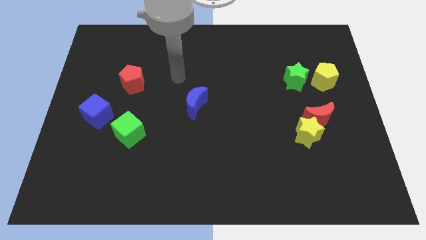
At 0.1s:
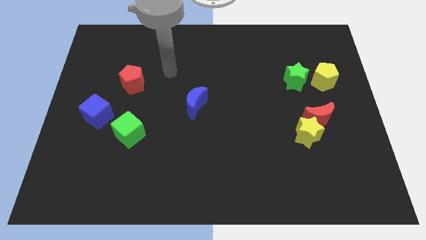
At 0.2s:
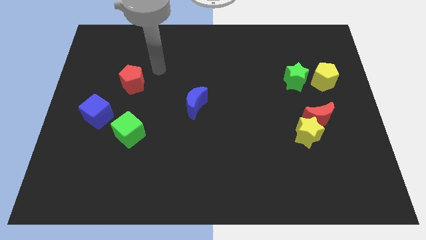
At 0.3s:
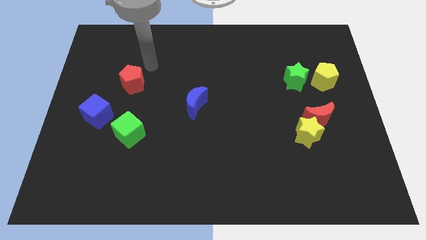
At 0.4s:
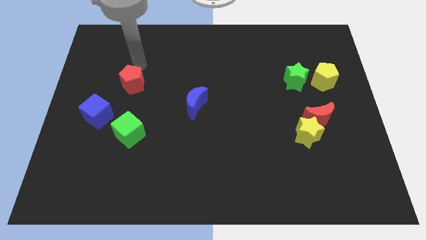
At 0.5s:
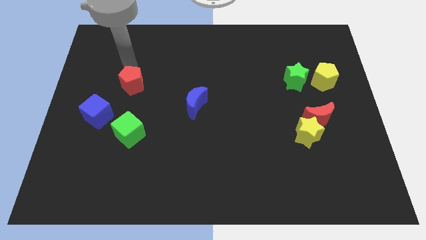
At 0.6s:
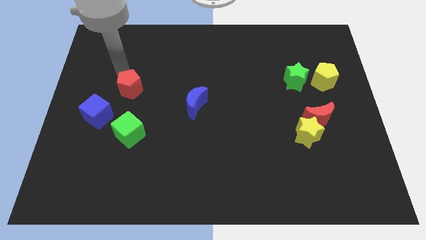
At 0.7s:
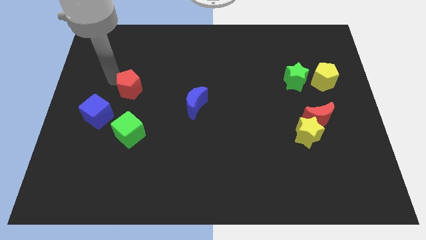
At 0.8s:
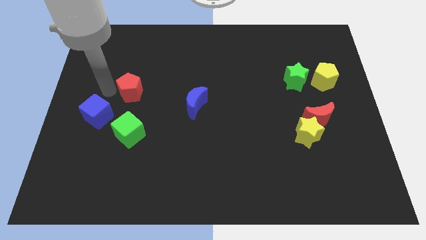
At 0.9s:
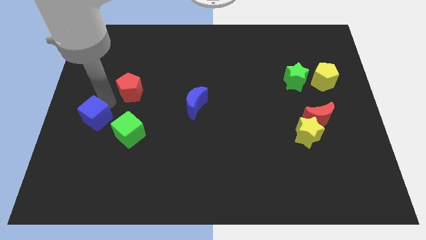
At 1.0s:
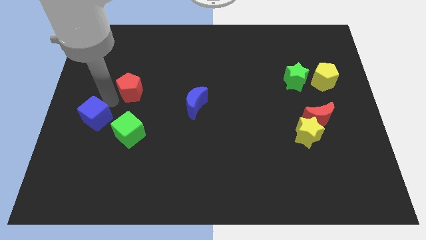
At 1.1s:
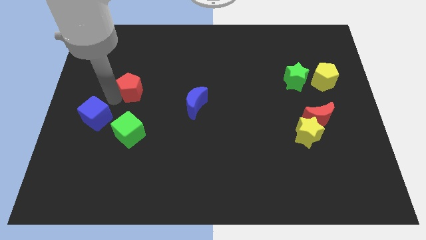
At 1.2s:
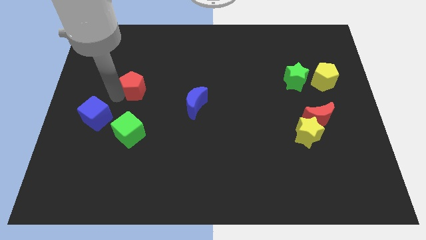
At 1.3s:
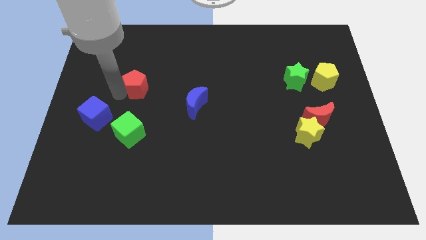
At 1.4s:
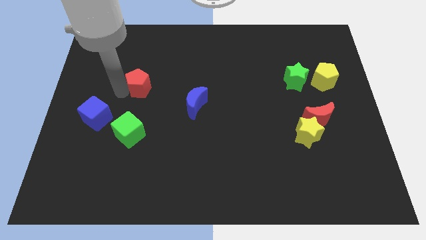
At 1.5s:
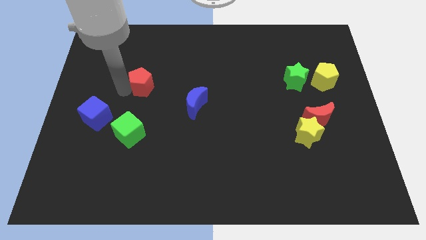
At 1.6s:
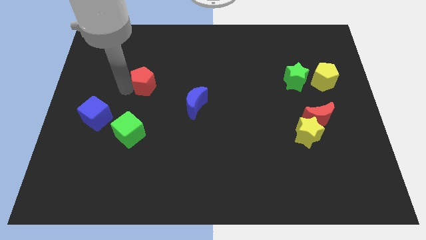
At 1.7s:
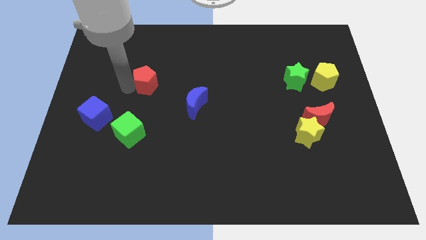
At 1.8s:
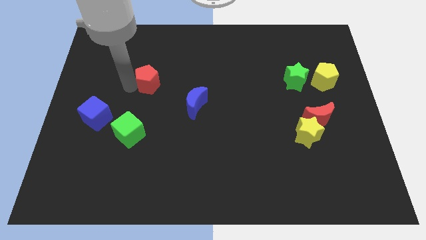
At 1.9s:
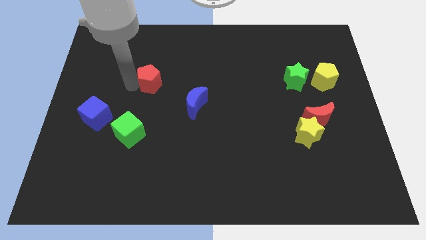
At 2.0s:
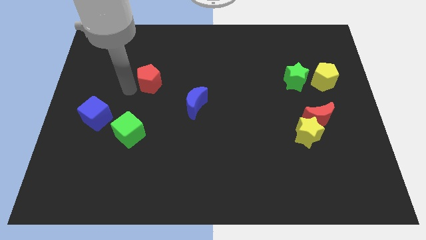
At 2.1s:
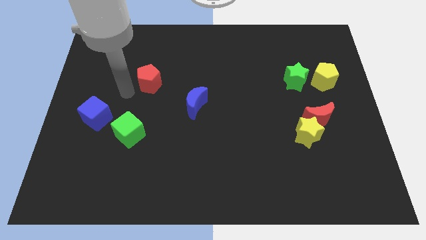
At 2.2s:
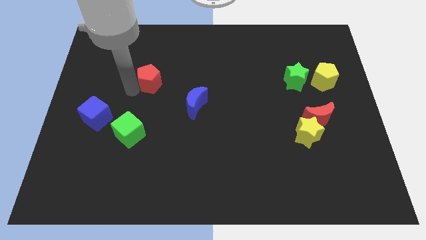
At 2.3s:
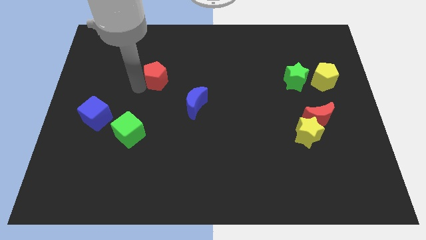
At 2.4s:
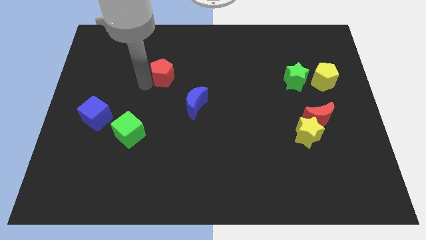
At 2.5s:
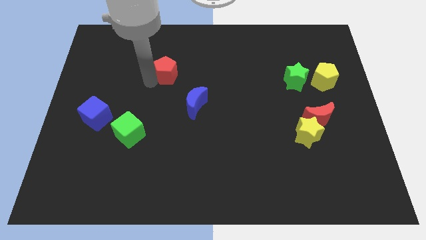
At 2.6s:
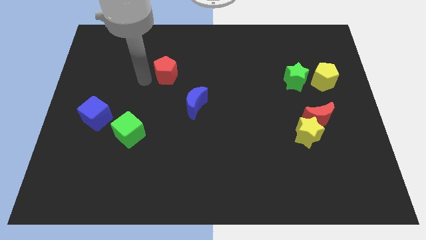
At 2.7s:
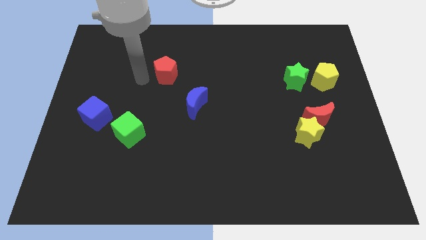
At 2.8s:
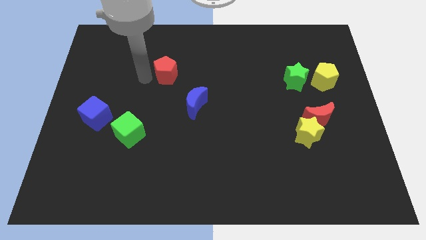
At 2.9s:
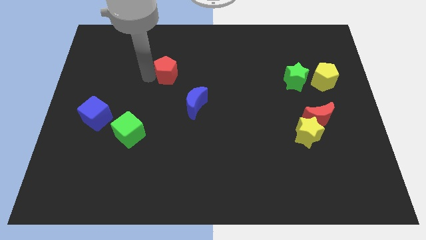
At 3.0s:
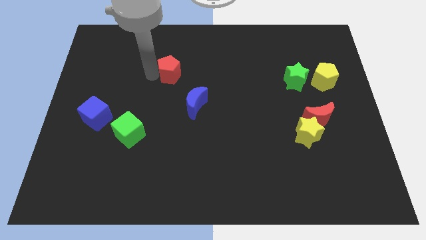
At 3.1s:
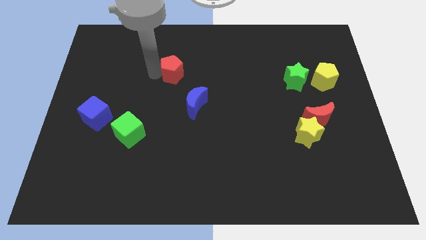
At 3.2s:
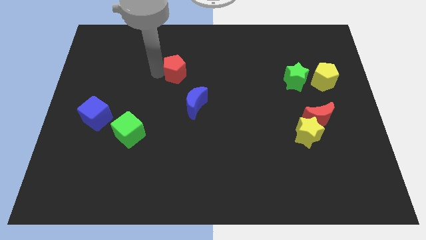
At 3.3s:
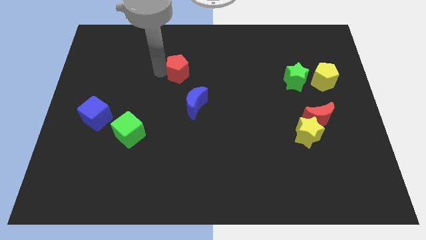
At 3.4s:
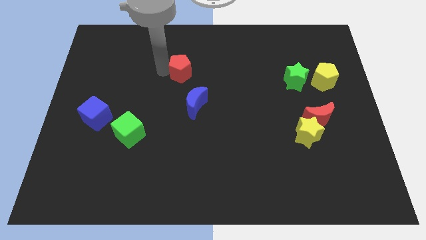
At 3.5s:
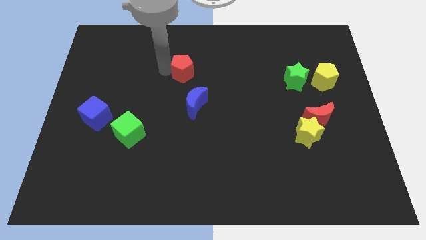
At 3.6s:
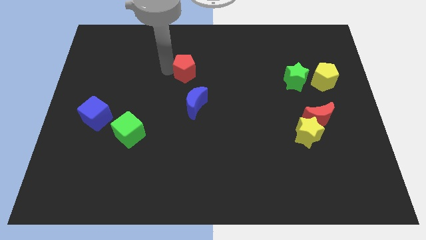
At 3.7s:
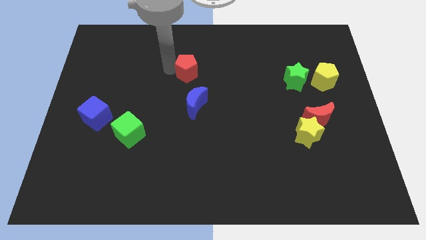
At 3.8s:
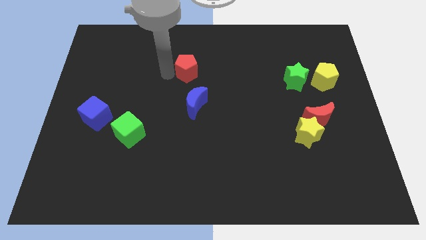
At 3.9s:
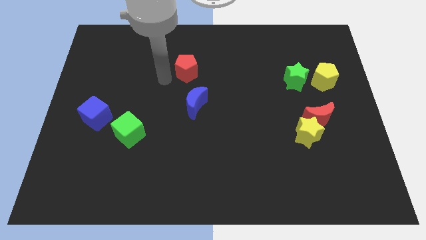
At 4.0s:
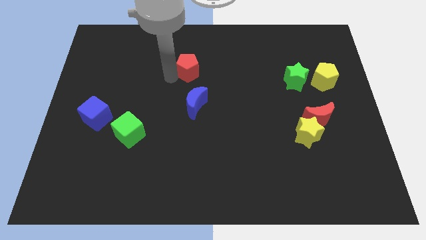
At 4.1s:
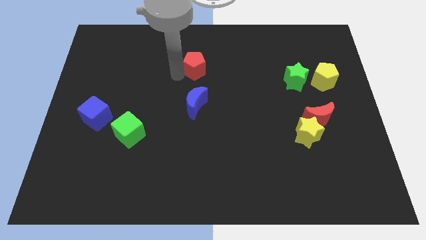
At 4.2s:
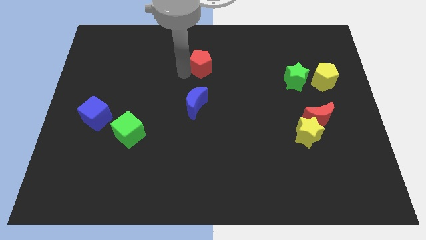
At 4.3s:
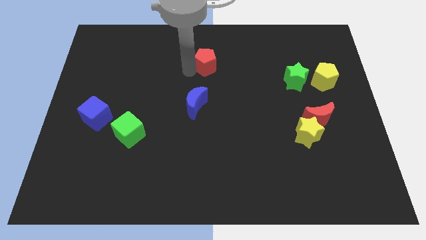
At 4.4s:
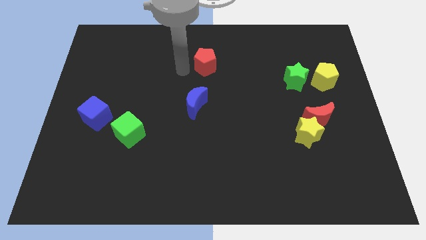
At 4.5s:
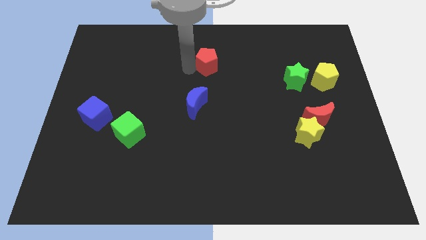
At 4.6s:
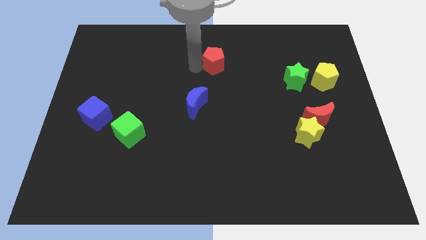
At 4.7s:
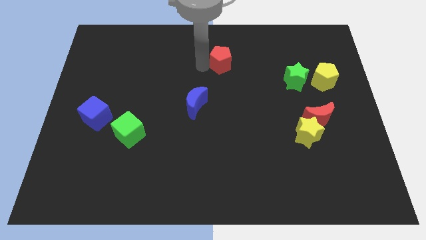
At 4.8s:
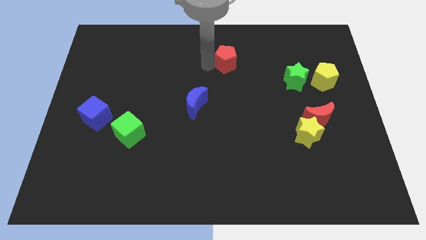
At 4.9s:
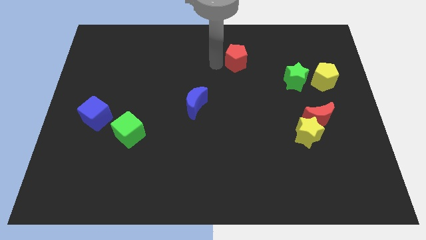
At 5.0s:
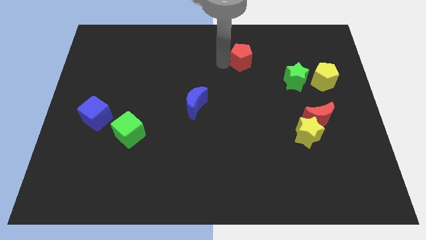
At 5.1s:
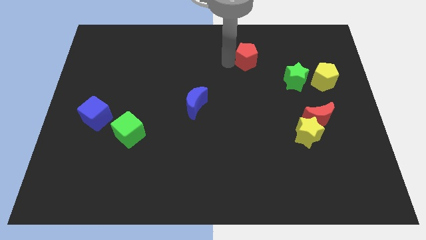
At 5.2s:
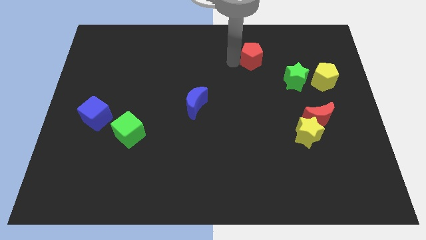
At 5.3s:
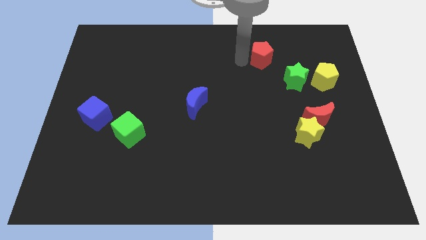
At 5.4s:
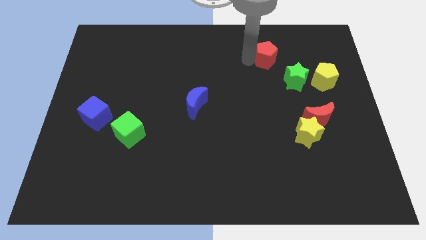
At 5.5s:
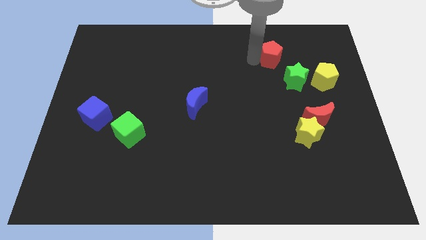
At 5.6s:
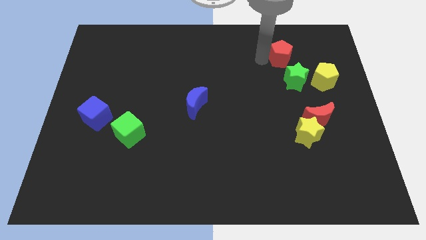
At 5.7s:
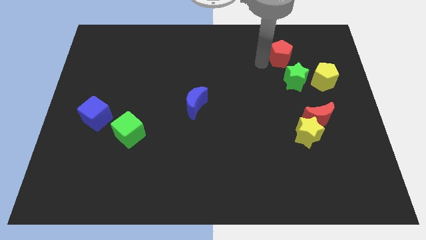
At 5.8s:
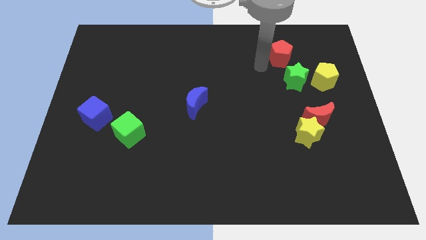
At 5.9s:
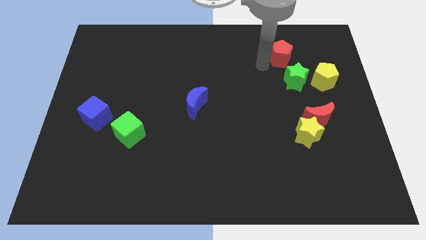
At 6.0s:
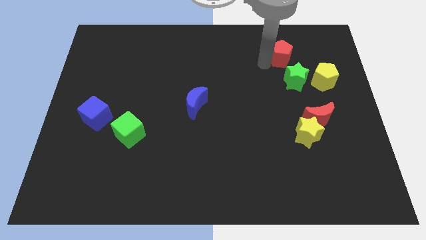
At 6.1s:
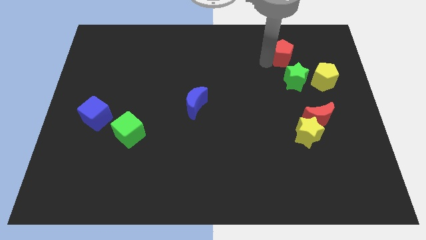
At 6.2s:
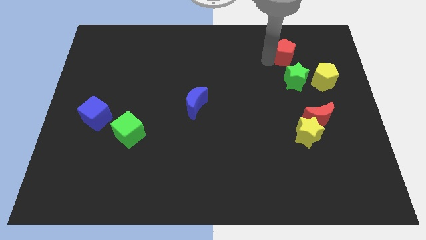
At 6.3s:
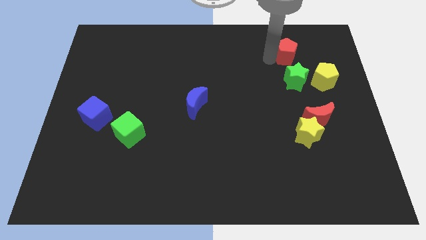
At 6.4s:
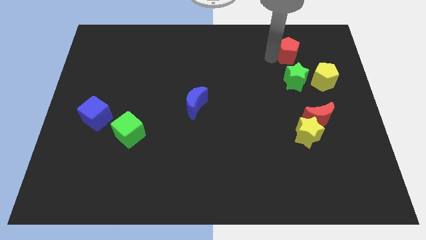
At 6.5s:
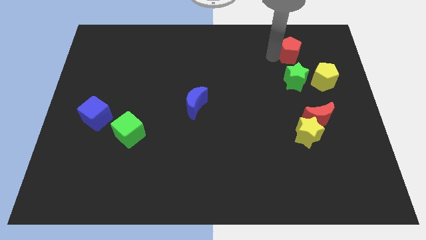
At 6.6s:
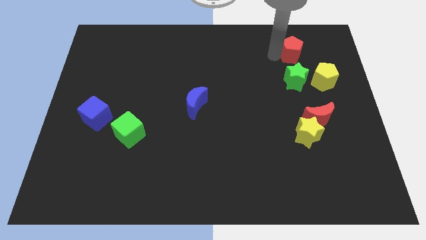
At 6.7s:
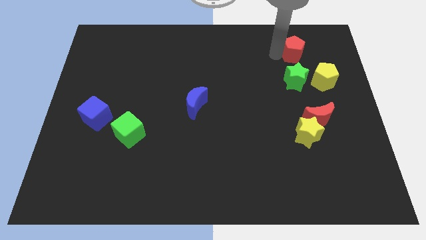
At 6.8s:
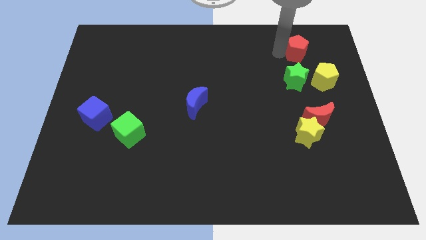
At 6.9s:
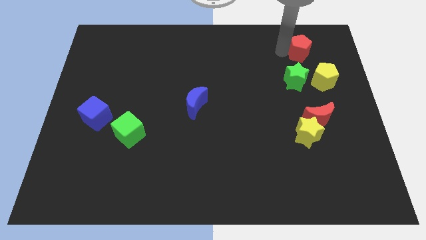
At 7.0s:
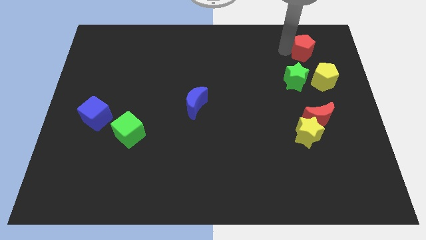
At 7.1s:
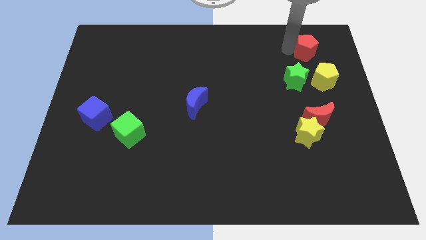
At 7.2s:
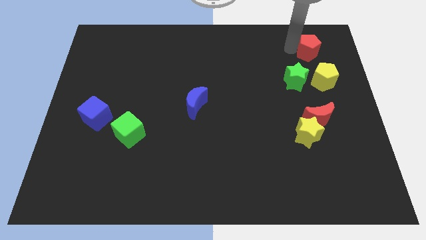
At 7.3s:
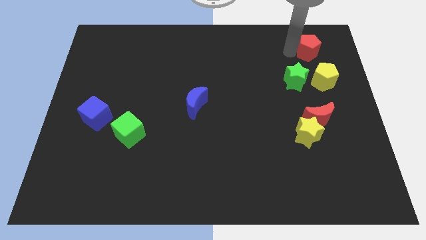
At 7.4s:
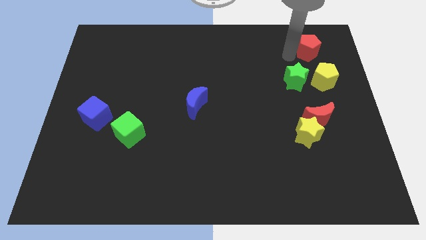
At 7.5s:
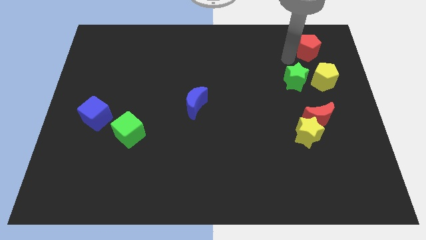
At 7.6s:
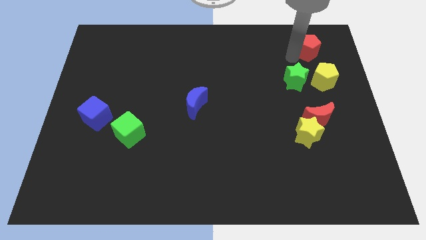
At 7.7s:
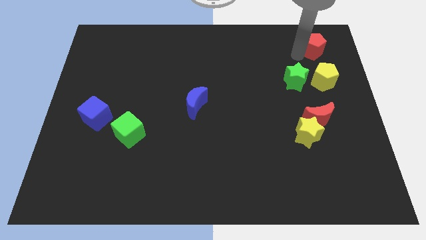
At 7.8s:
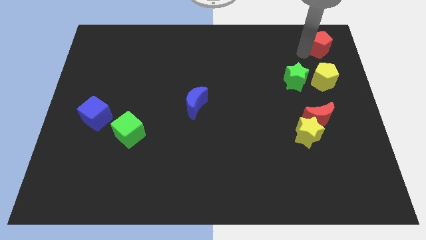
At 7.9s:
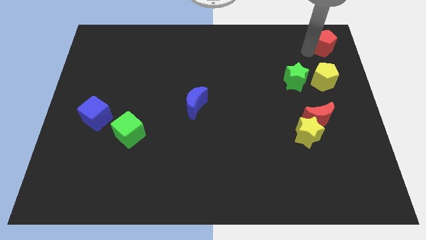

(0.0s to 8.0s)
slide the red pentagon to the top right corner

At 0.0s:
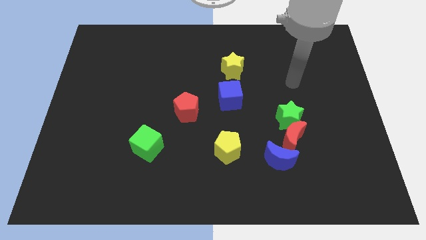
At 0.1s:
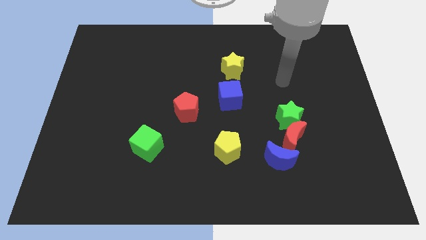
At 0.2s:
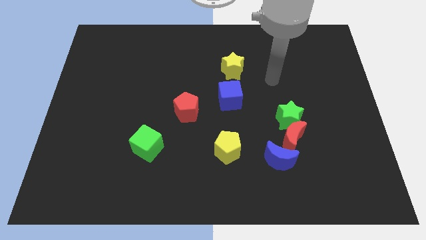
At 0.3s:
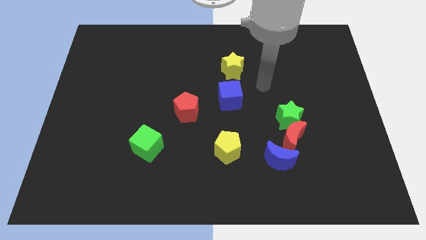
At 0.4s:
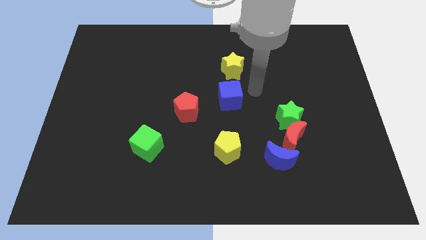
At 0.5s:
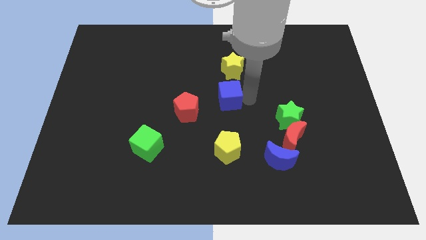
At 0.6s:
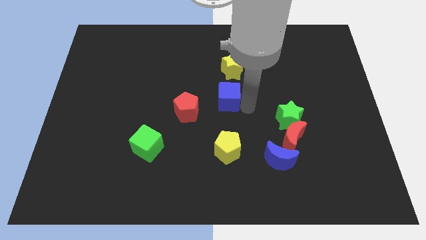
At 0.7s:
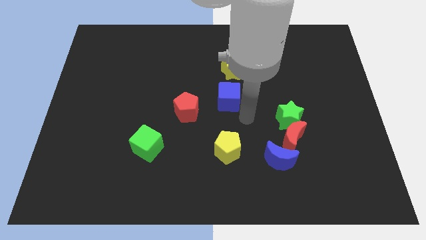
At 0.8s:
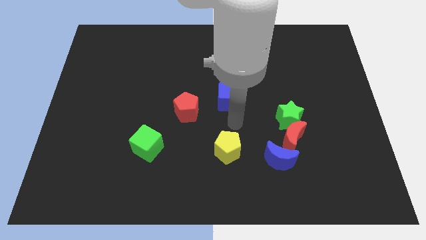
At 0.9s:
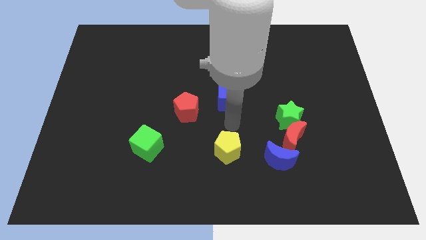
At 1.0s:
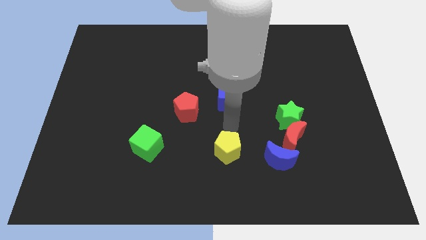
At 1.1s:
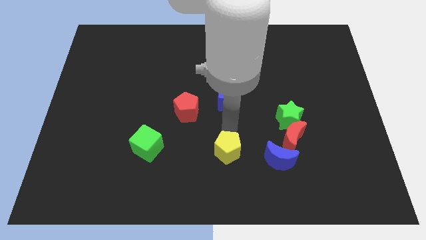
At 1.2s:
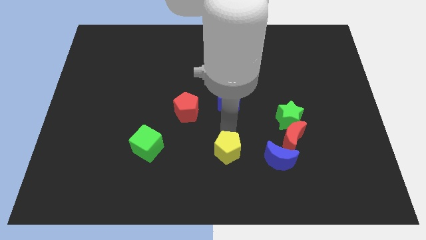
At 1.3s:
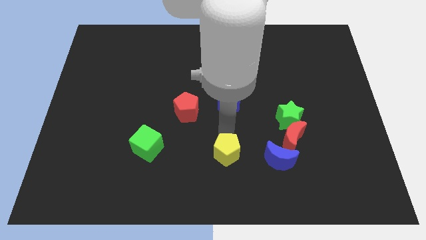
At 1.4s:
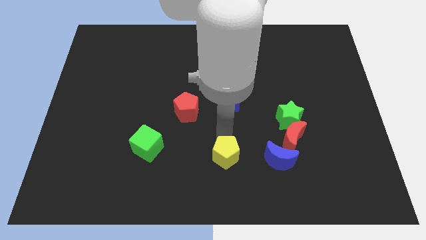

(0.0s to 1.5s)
push the yellow pentagon to the bottom
